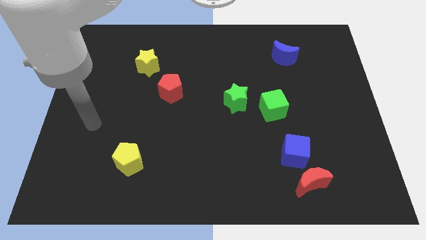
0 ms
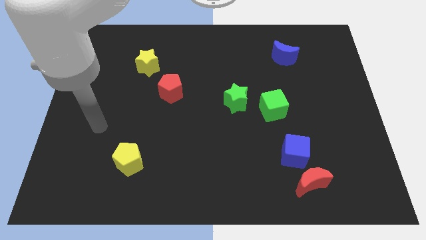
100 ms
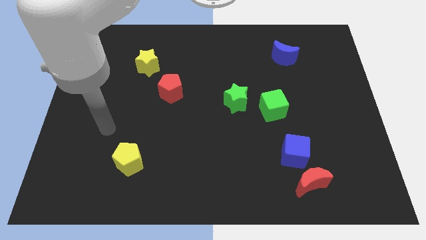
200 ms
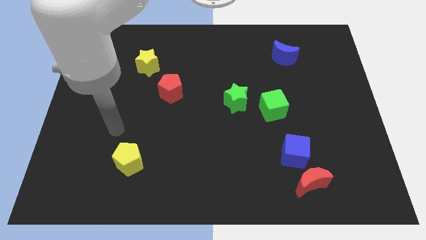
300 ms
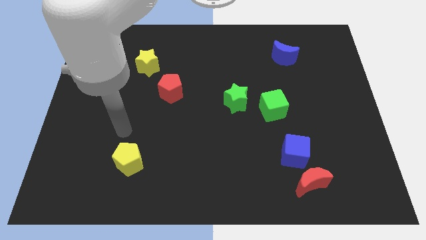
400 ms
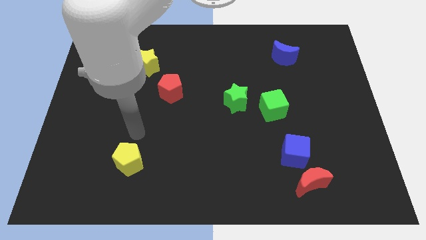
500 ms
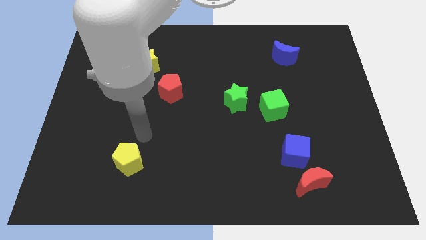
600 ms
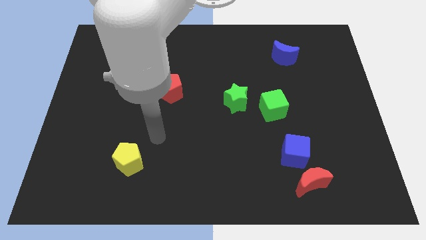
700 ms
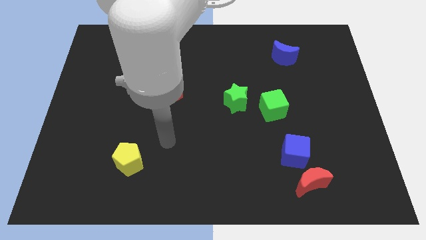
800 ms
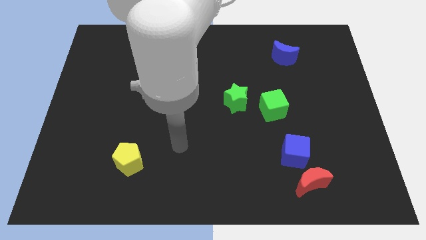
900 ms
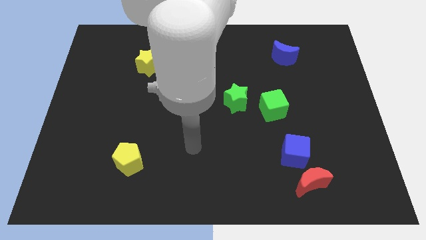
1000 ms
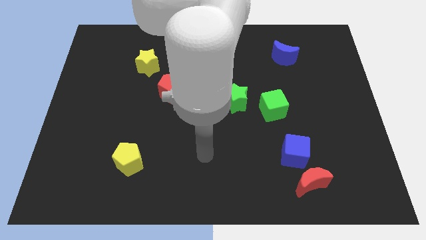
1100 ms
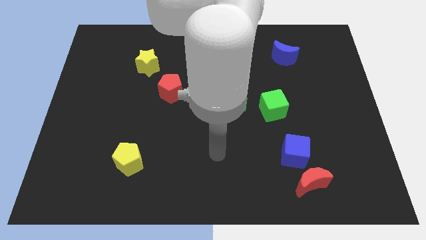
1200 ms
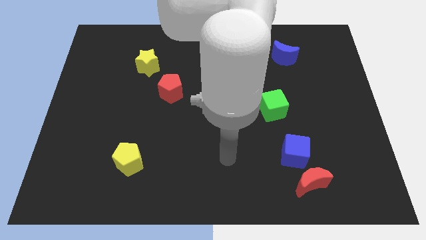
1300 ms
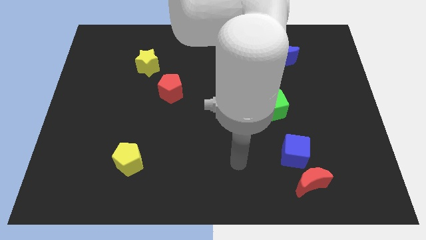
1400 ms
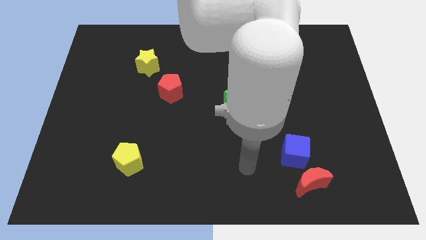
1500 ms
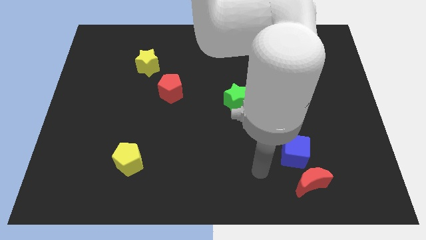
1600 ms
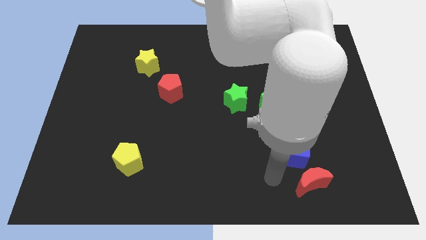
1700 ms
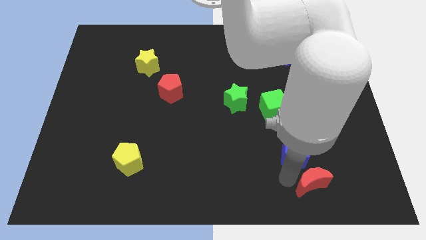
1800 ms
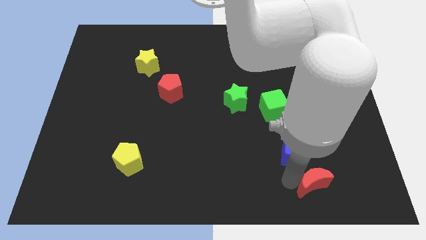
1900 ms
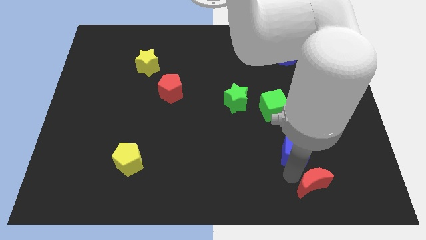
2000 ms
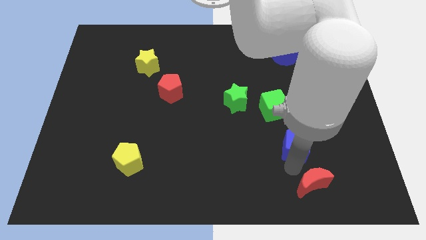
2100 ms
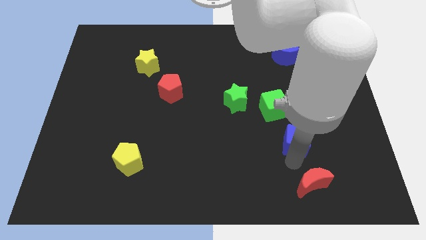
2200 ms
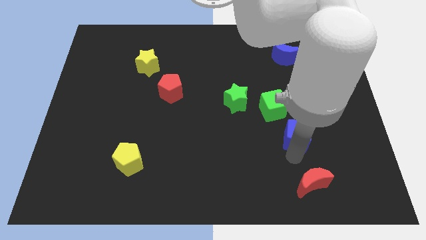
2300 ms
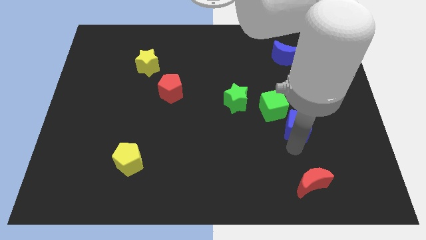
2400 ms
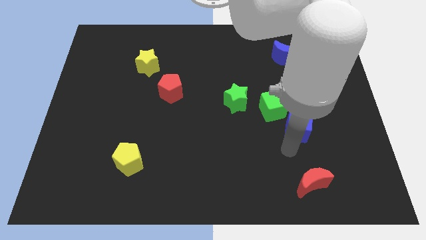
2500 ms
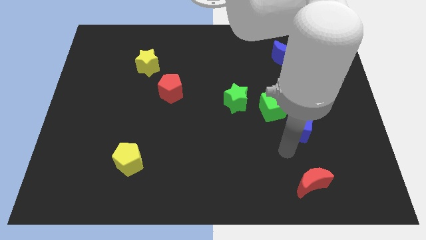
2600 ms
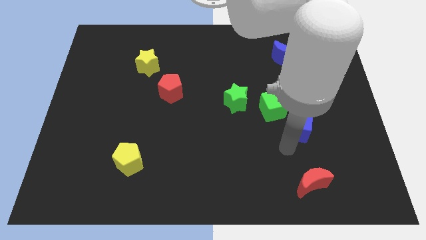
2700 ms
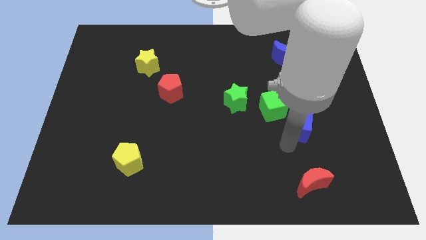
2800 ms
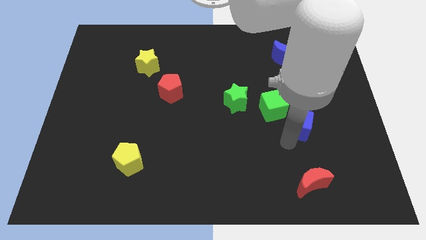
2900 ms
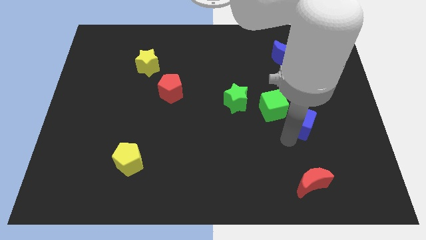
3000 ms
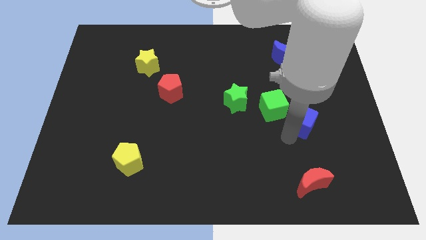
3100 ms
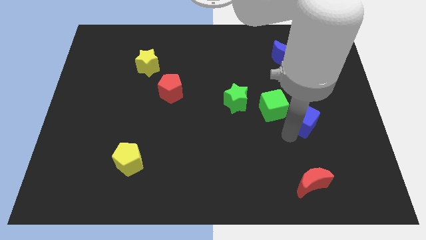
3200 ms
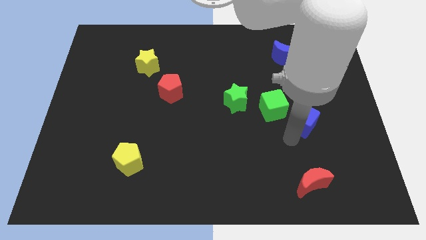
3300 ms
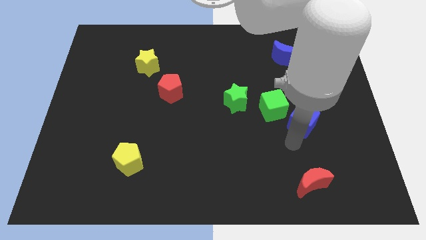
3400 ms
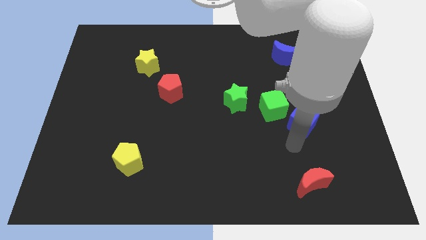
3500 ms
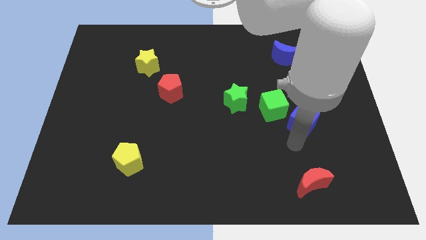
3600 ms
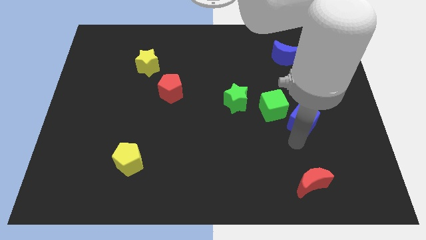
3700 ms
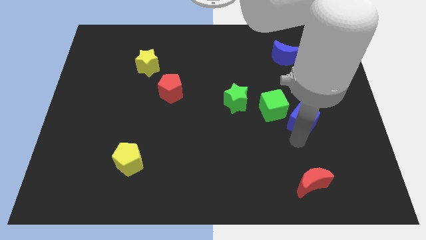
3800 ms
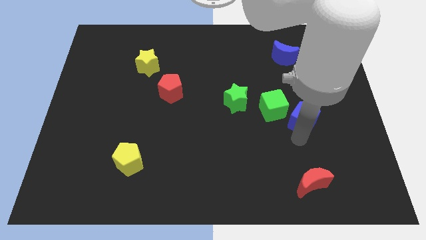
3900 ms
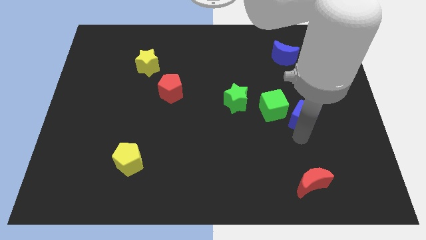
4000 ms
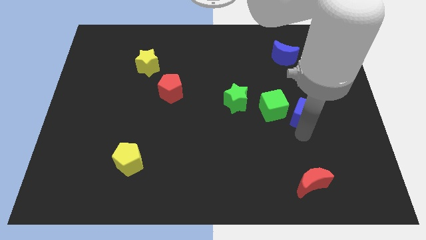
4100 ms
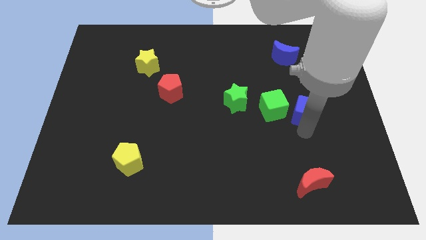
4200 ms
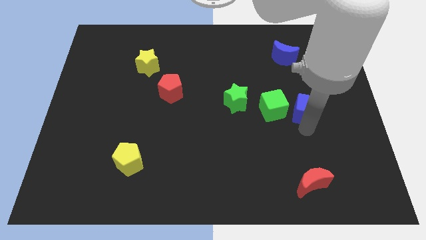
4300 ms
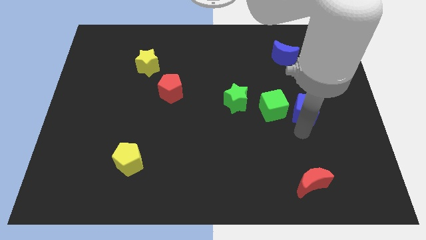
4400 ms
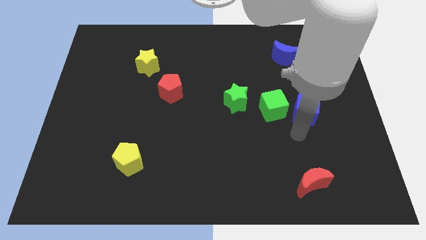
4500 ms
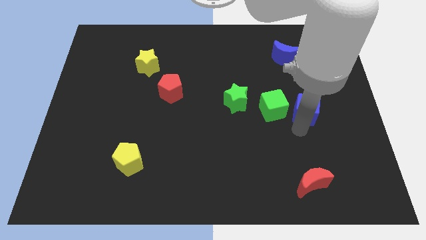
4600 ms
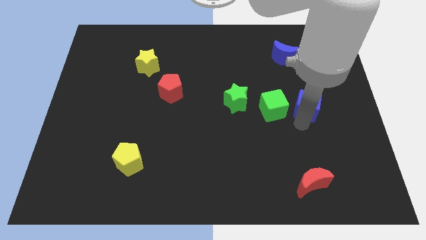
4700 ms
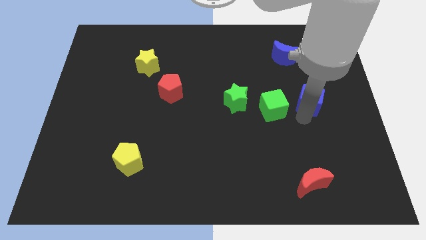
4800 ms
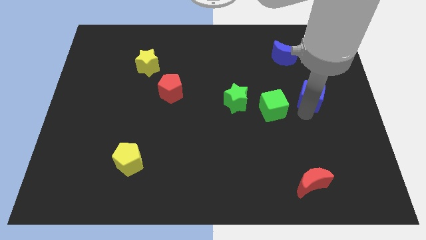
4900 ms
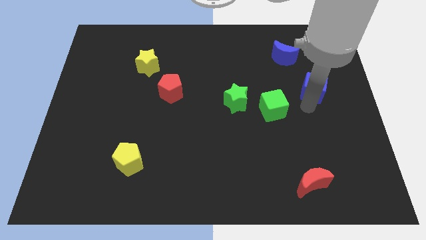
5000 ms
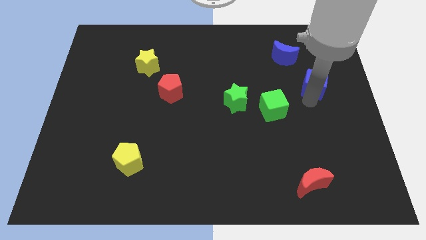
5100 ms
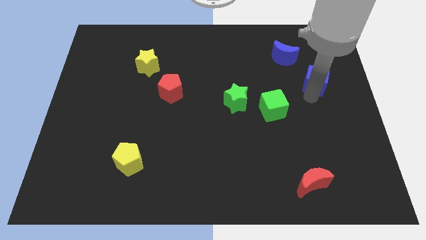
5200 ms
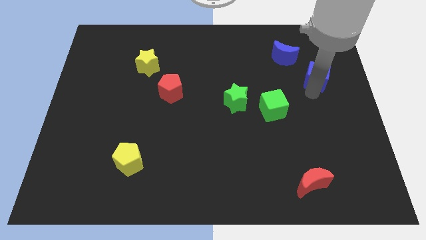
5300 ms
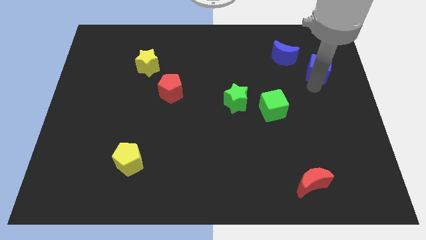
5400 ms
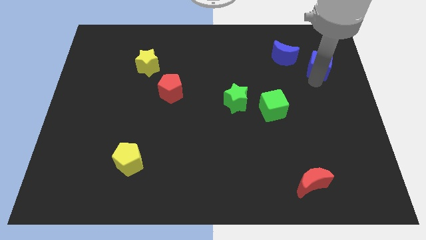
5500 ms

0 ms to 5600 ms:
put the blue cube right of the blue moon

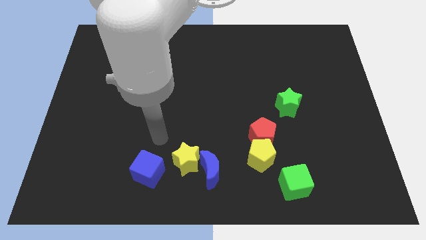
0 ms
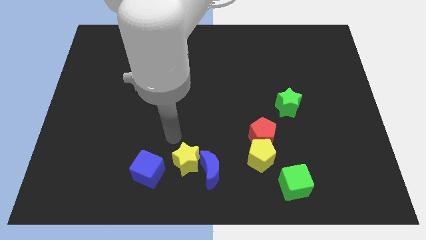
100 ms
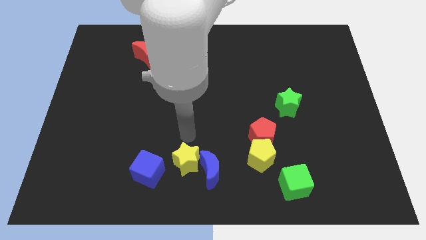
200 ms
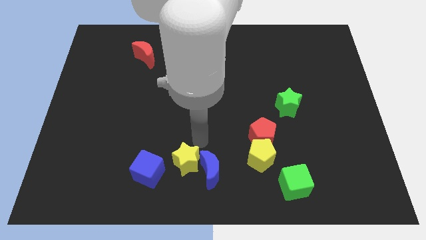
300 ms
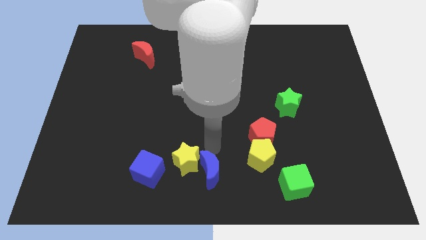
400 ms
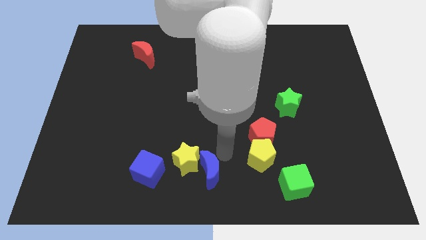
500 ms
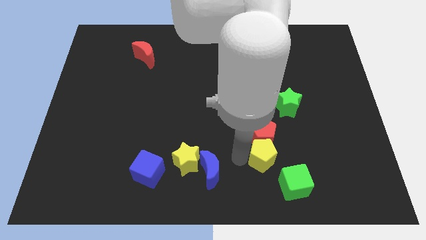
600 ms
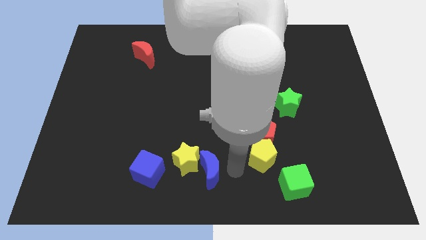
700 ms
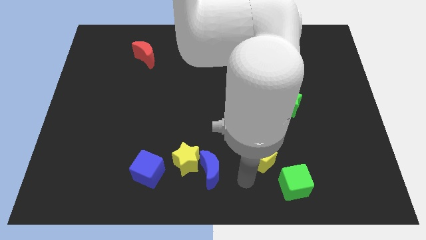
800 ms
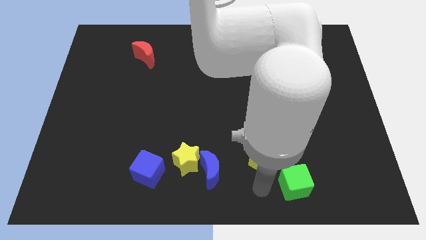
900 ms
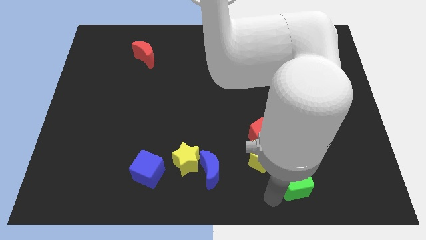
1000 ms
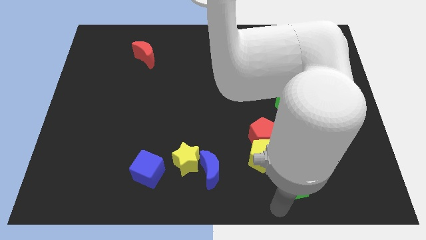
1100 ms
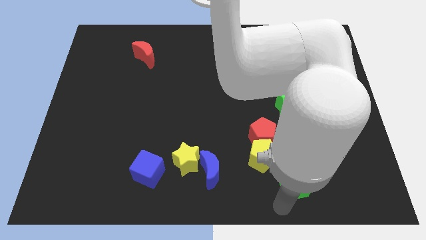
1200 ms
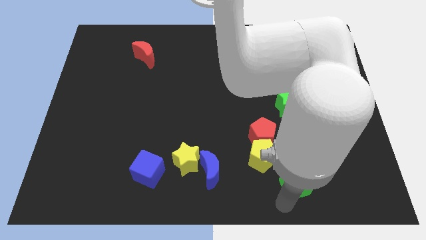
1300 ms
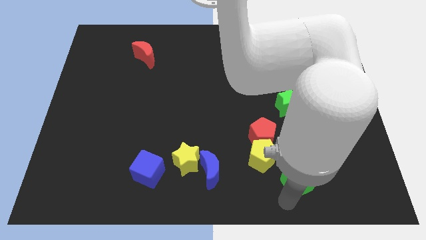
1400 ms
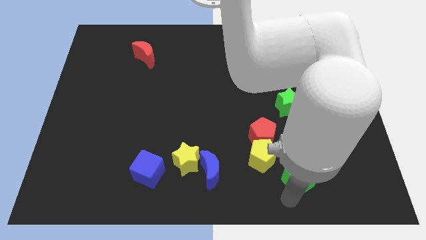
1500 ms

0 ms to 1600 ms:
move the green cube right of the yellow pentagon
